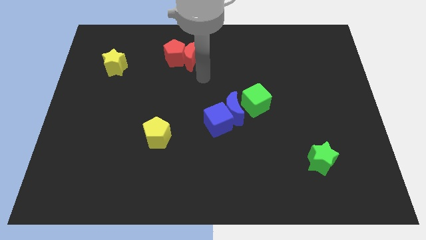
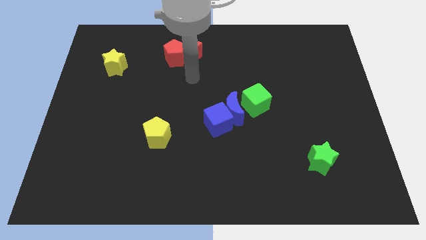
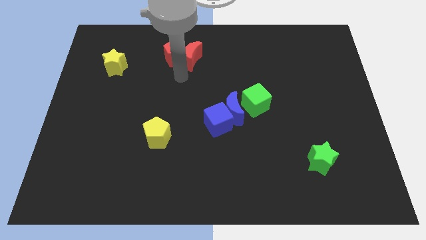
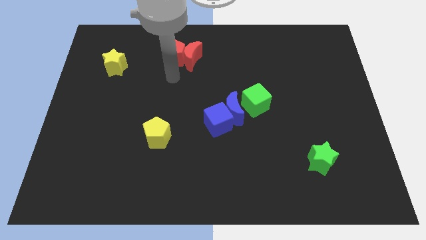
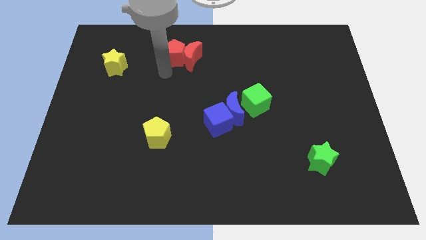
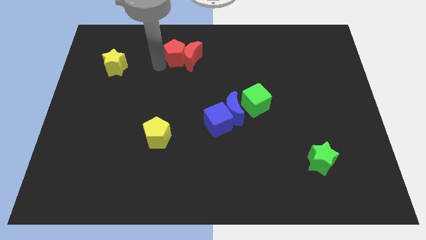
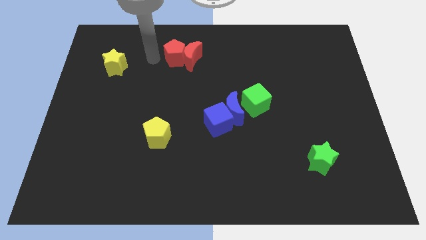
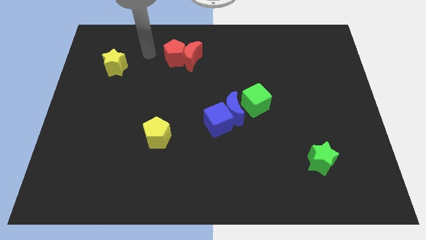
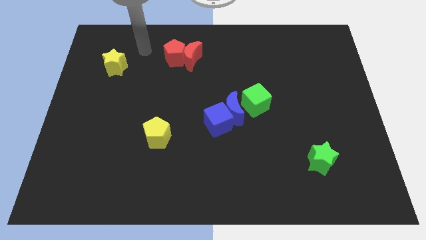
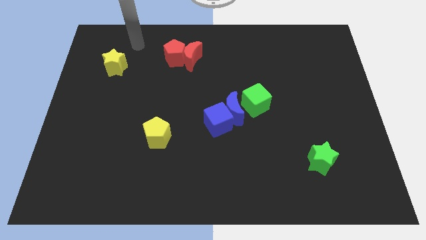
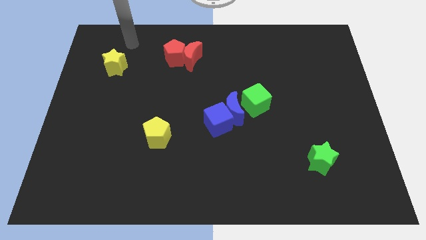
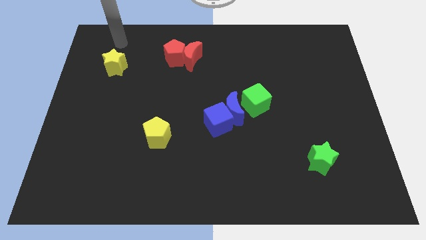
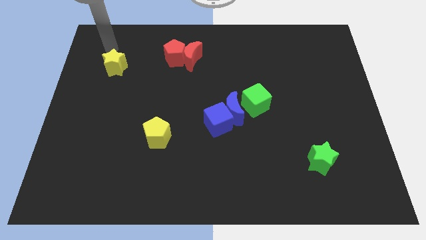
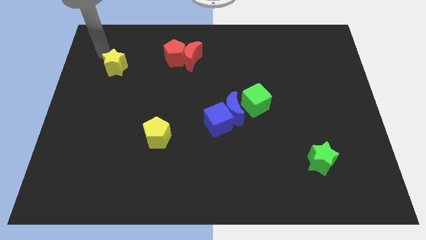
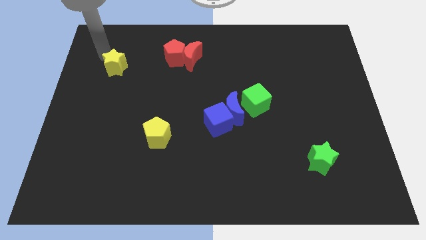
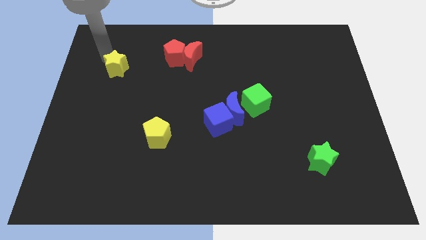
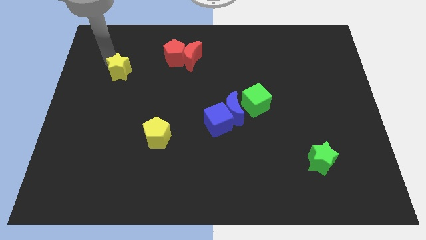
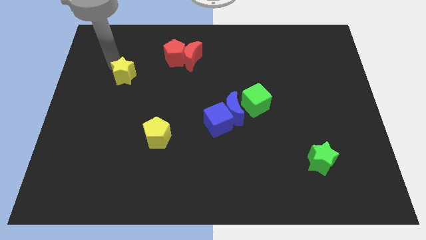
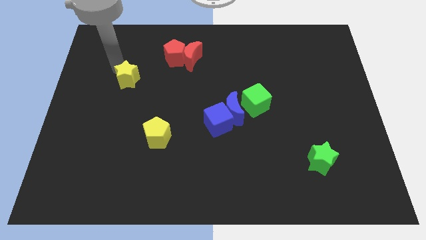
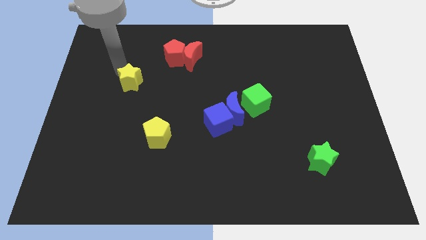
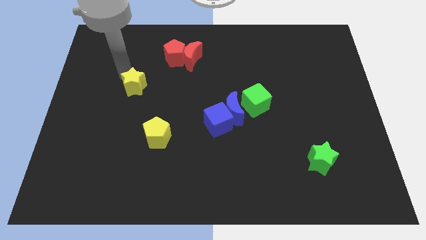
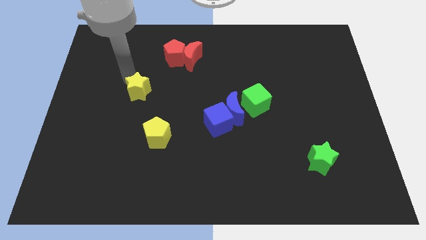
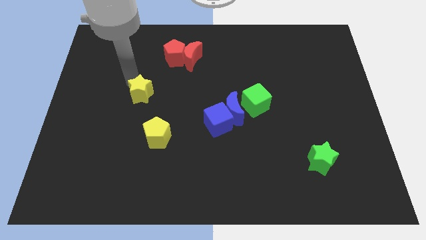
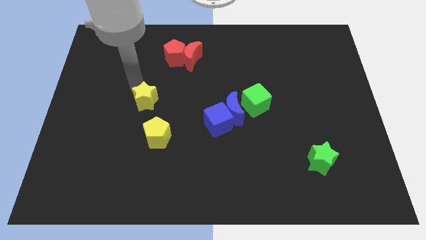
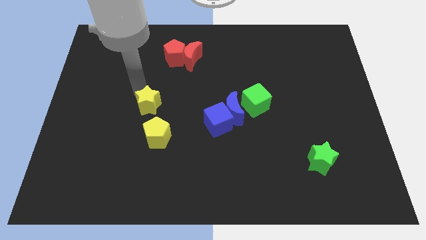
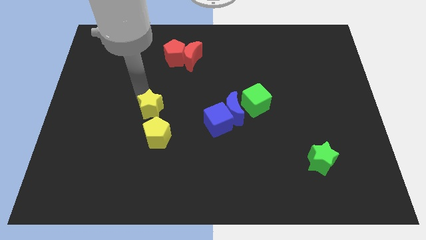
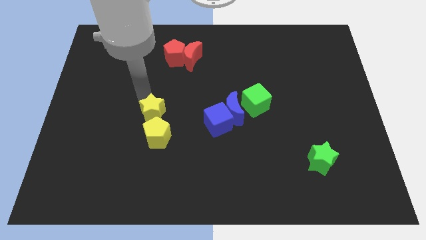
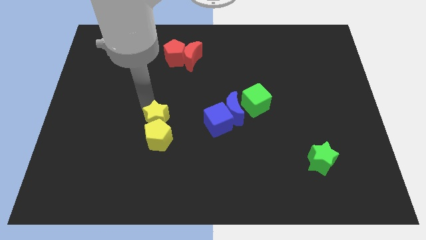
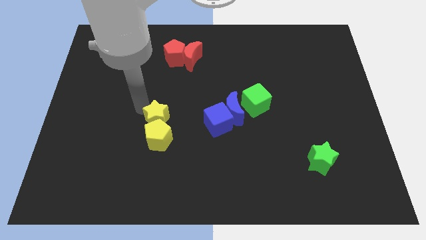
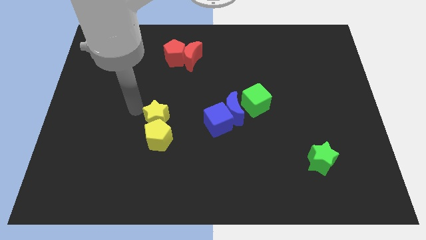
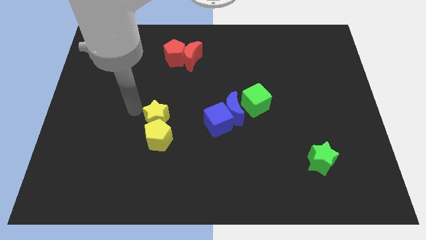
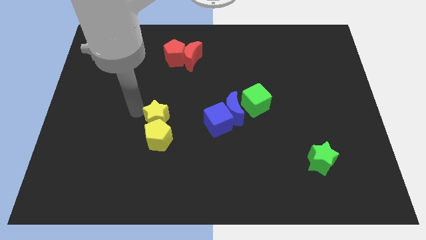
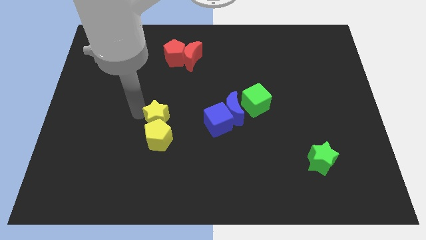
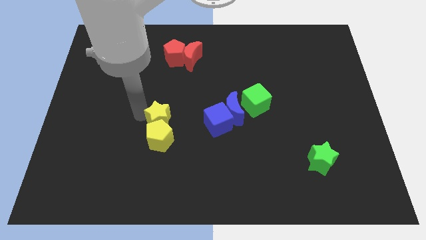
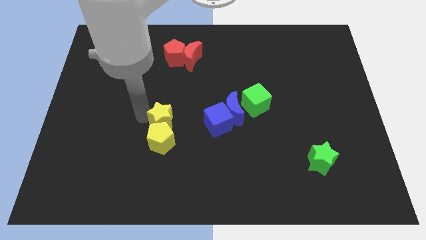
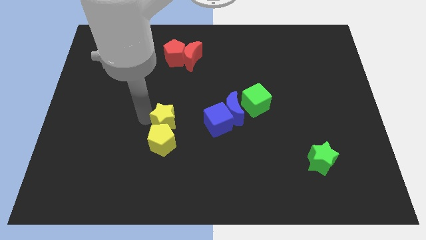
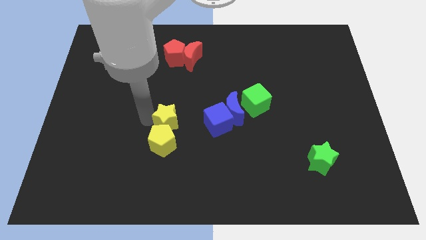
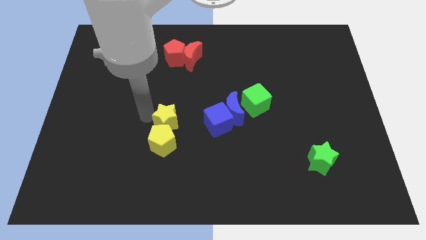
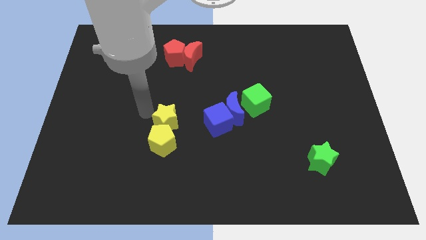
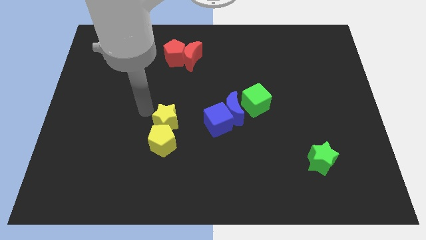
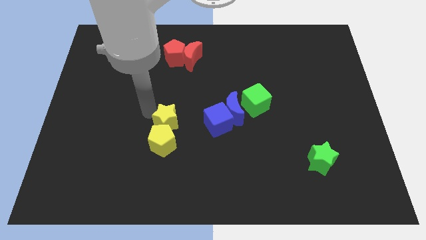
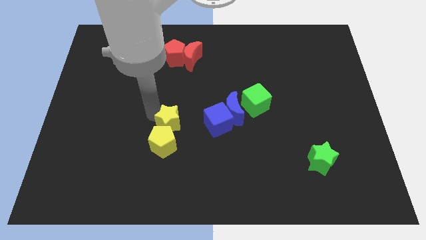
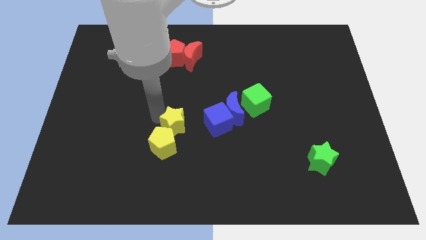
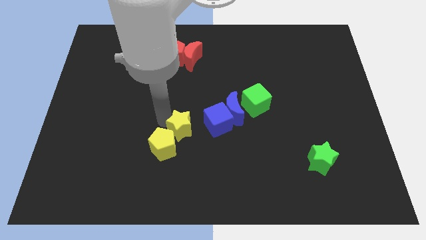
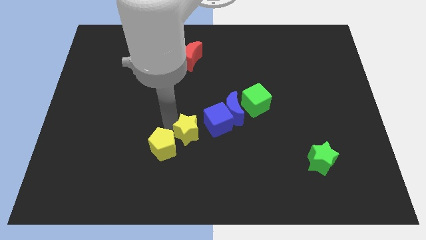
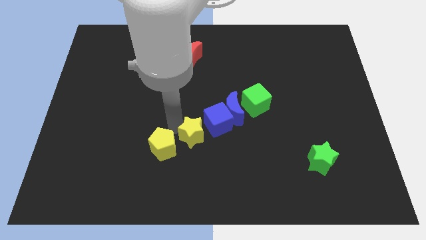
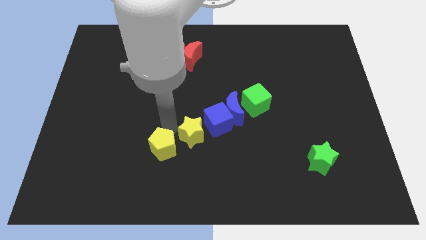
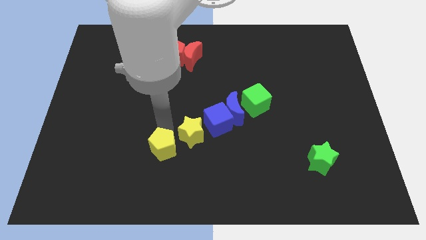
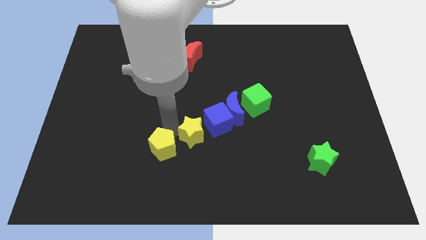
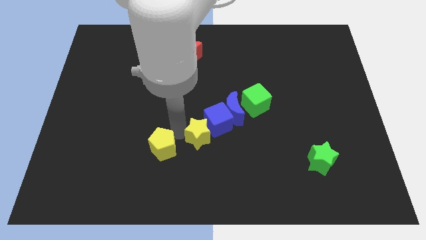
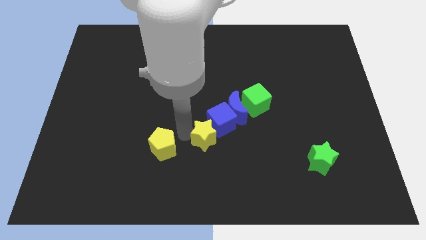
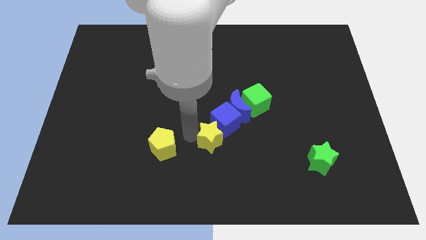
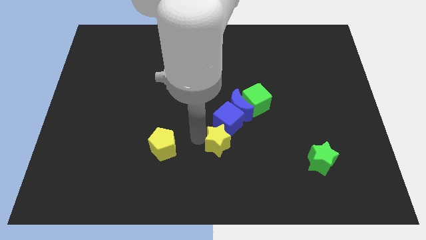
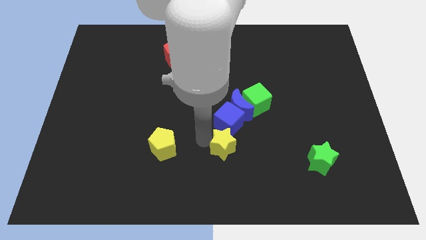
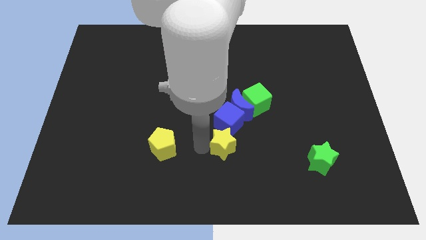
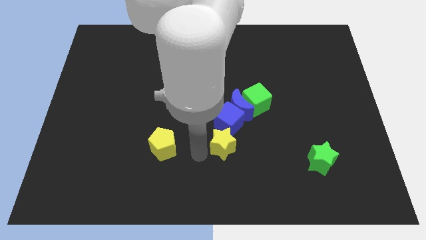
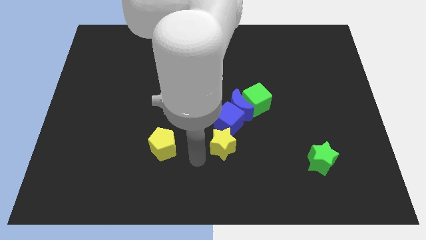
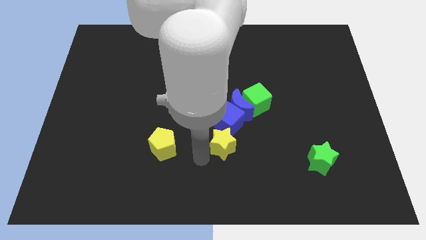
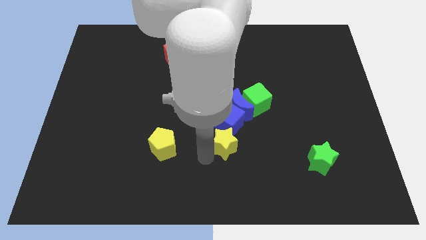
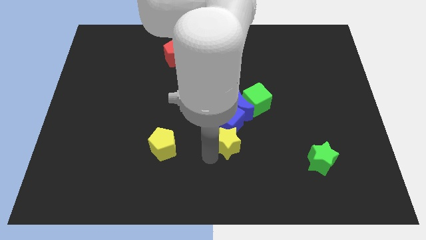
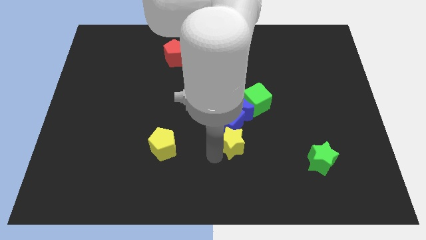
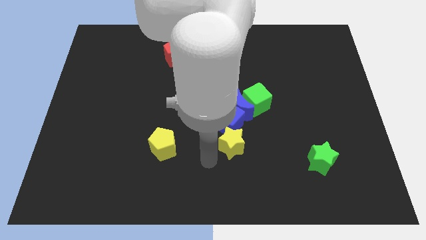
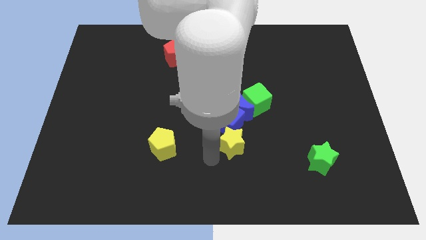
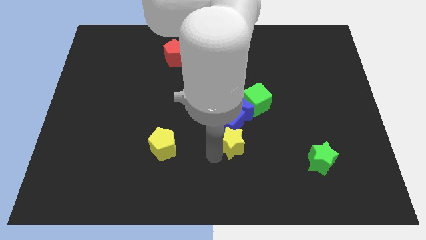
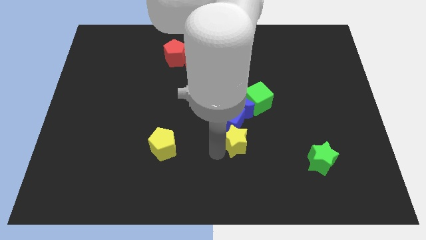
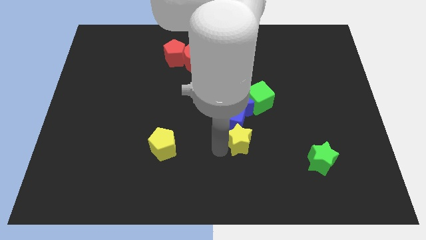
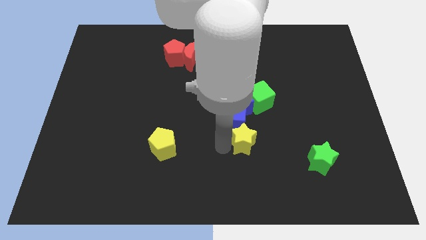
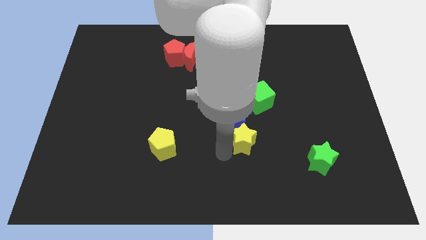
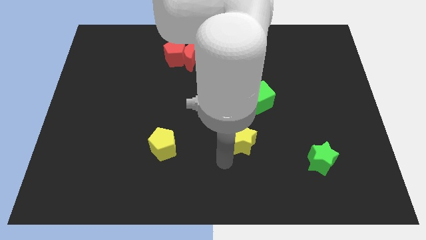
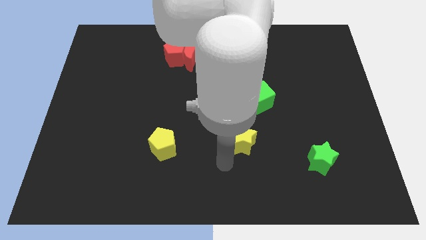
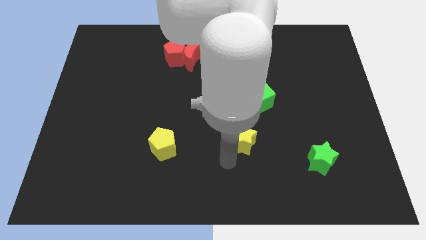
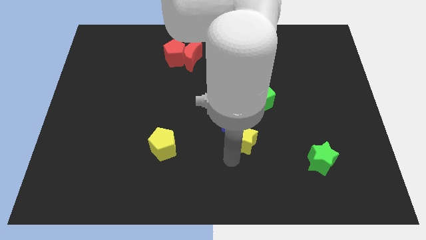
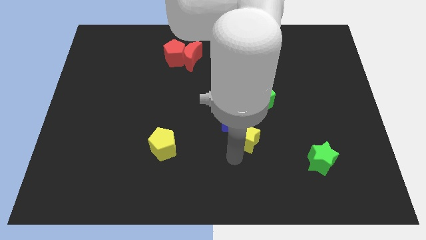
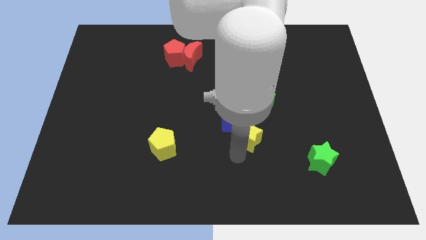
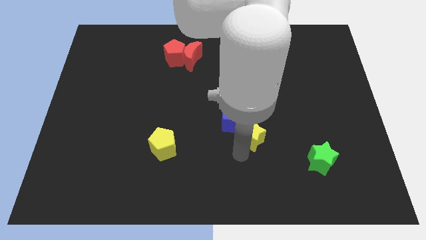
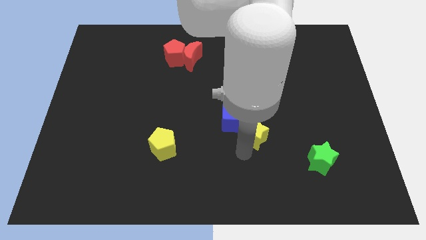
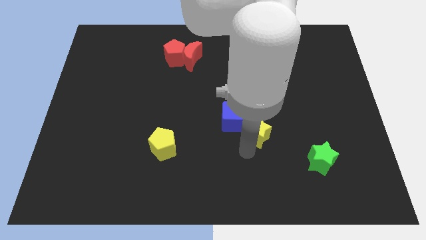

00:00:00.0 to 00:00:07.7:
move the yellow star to the bottom right side of the blue moon
